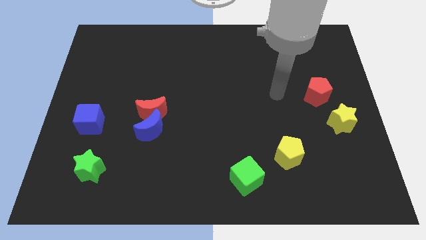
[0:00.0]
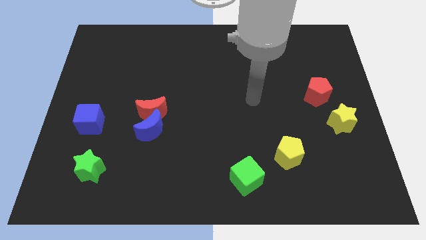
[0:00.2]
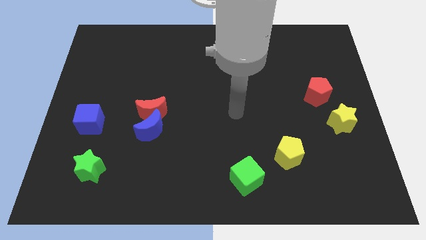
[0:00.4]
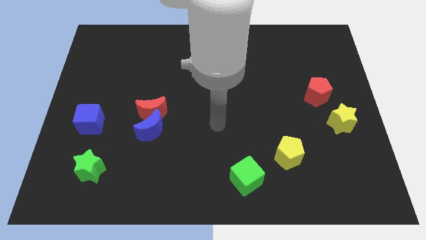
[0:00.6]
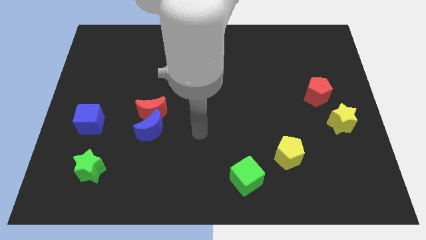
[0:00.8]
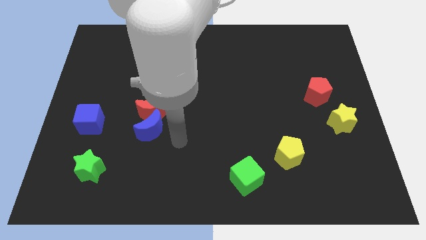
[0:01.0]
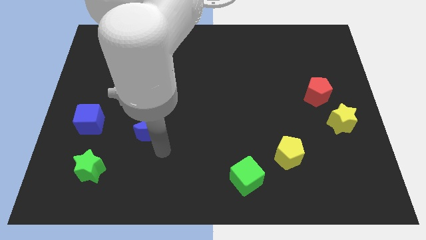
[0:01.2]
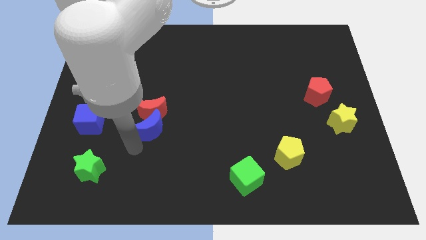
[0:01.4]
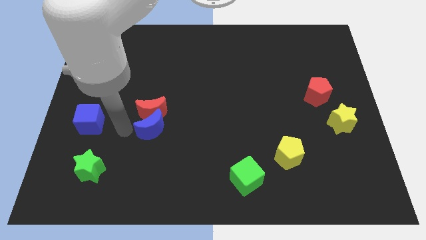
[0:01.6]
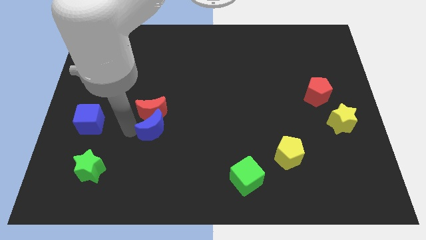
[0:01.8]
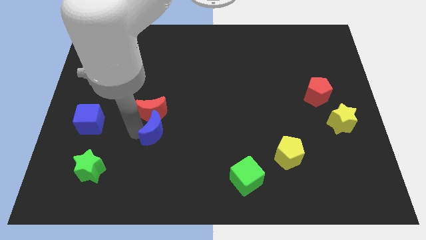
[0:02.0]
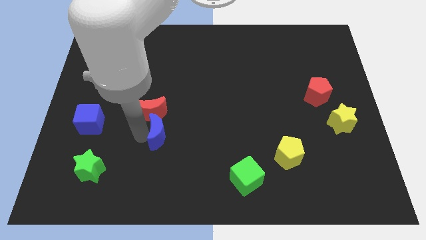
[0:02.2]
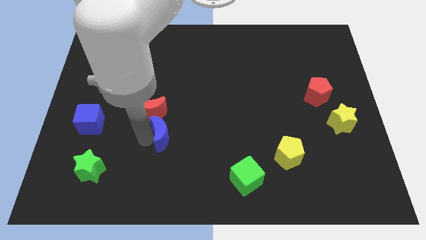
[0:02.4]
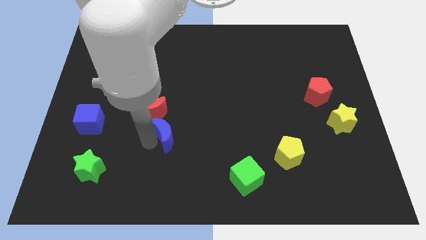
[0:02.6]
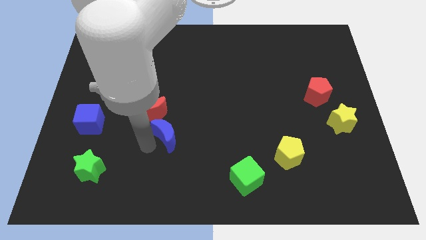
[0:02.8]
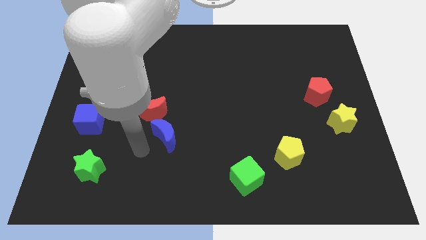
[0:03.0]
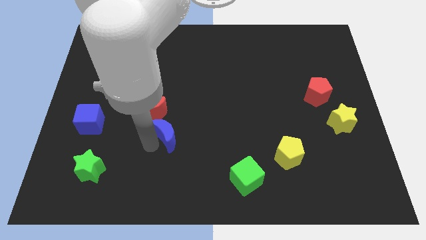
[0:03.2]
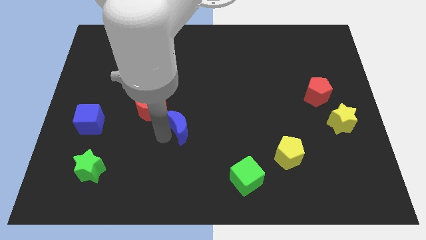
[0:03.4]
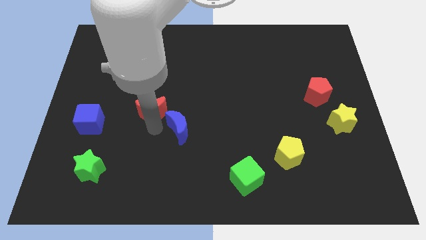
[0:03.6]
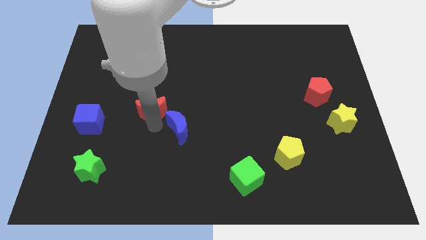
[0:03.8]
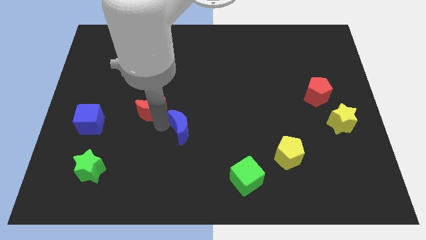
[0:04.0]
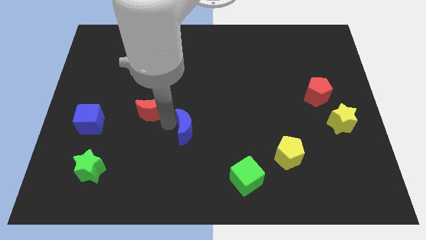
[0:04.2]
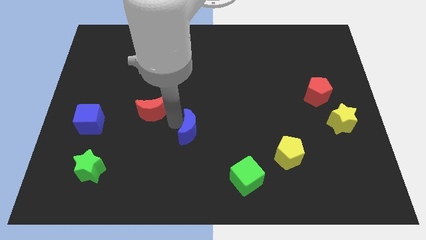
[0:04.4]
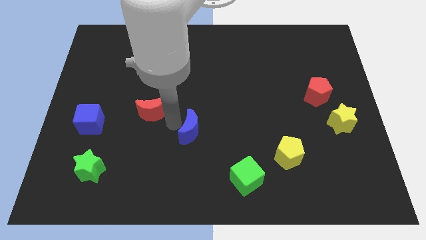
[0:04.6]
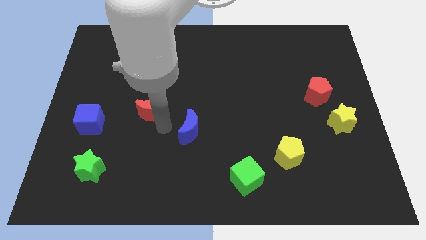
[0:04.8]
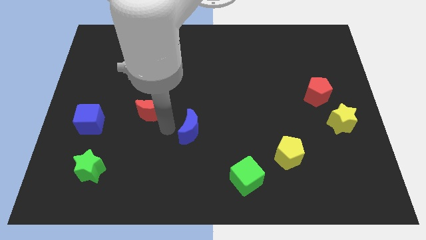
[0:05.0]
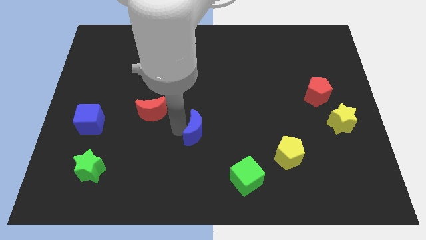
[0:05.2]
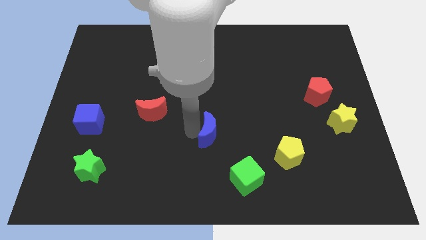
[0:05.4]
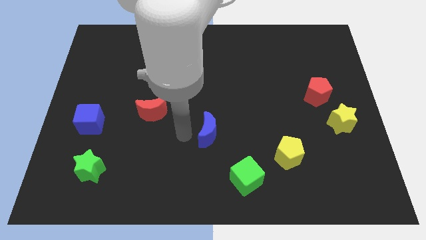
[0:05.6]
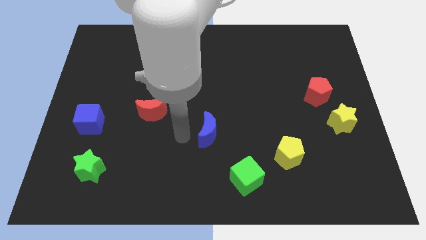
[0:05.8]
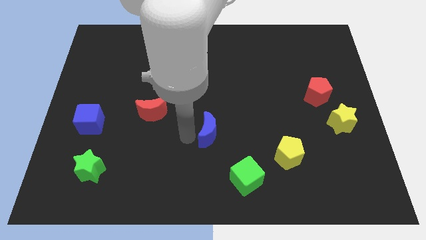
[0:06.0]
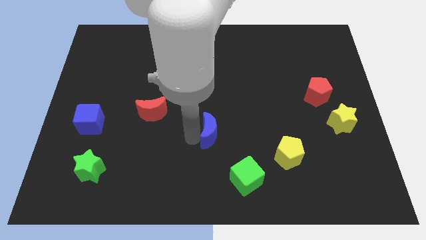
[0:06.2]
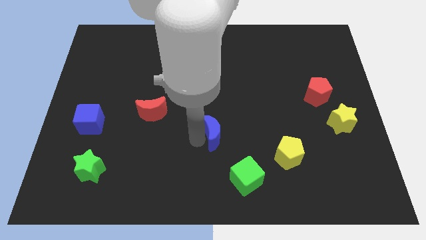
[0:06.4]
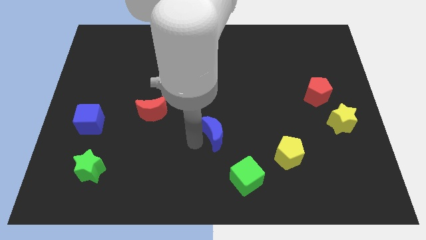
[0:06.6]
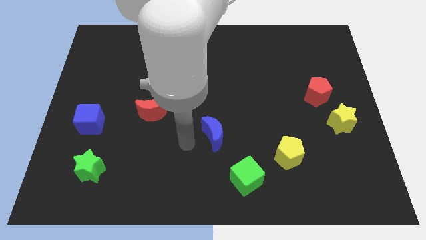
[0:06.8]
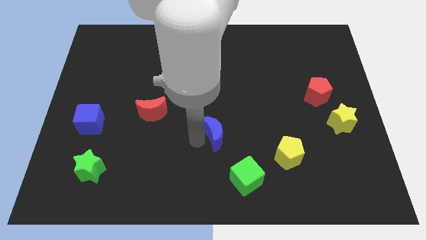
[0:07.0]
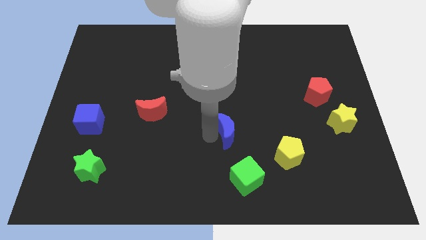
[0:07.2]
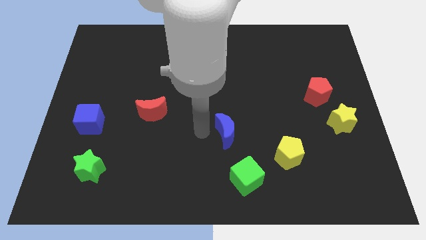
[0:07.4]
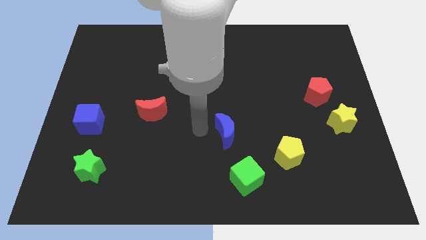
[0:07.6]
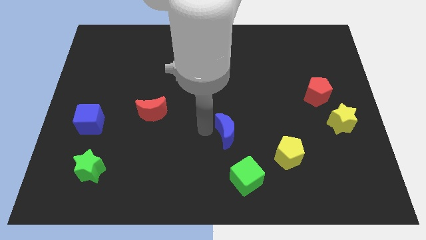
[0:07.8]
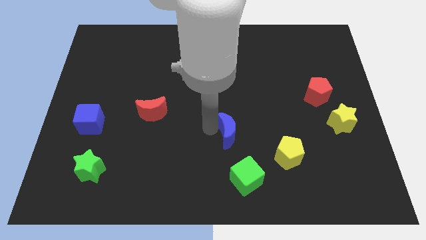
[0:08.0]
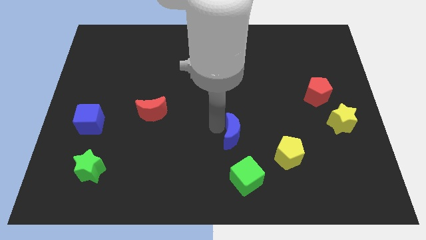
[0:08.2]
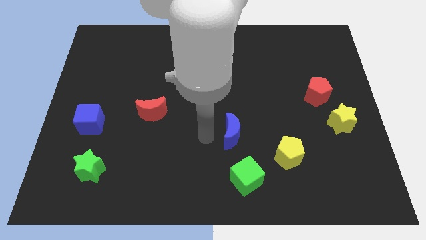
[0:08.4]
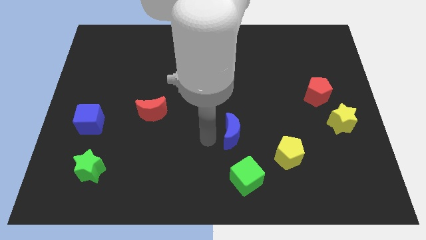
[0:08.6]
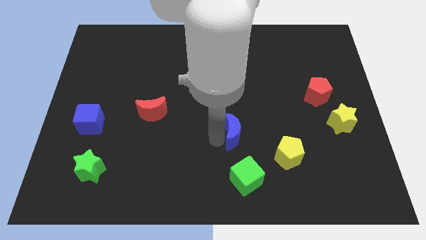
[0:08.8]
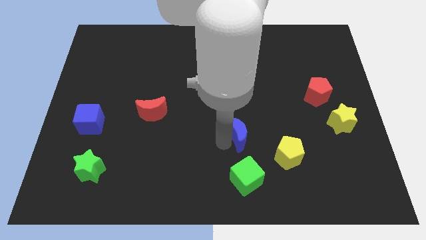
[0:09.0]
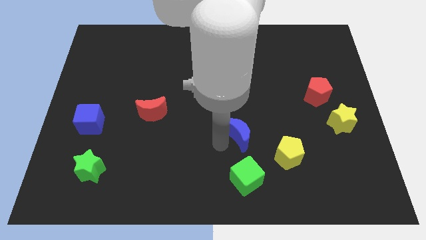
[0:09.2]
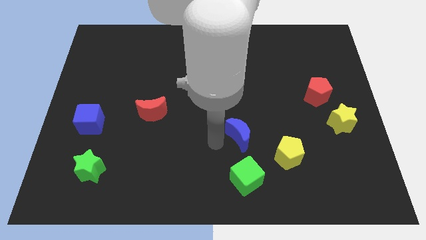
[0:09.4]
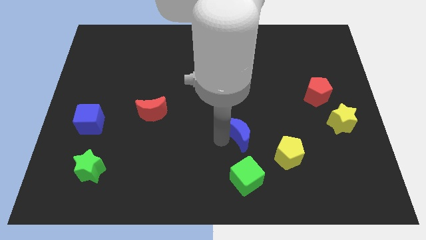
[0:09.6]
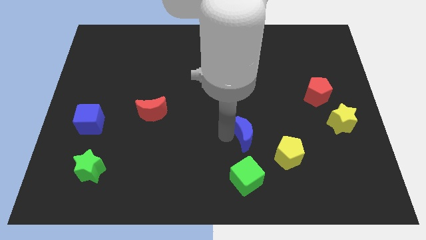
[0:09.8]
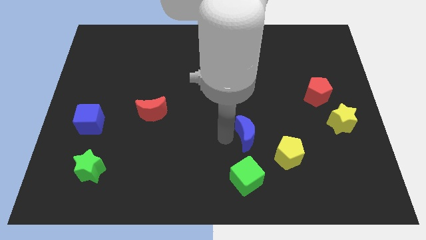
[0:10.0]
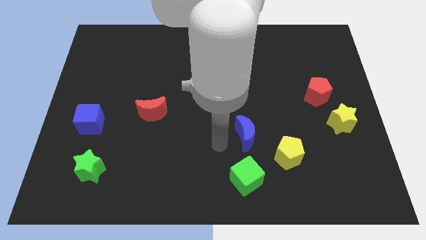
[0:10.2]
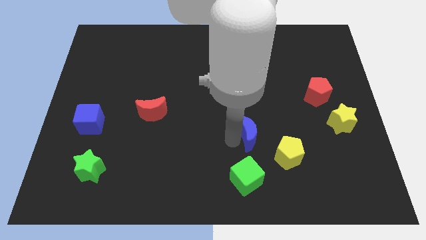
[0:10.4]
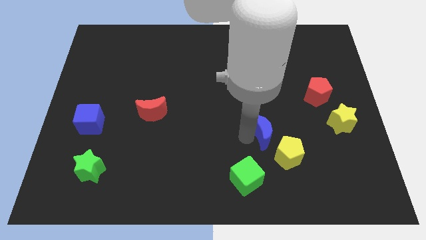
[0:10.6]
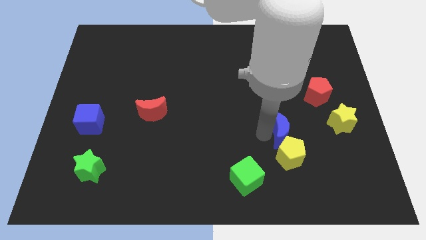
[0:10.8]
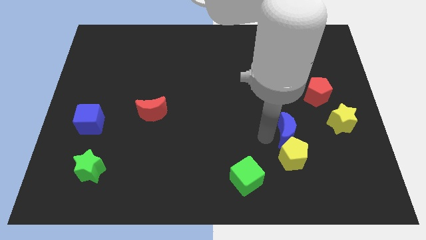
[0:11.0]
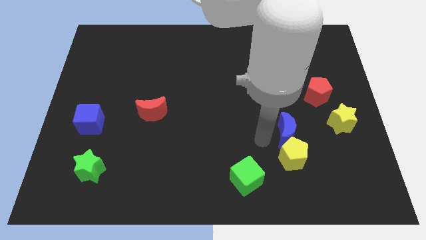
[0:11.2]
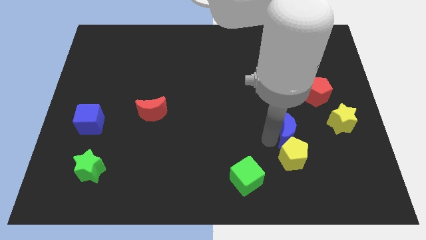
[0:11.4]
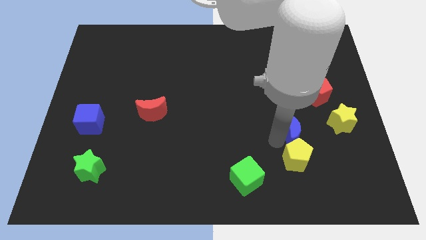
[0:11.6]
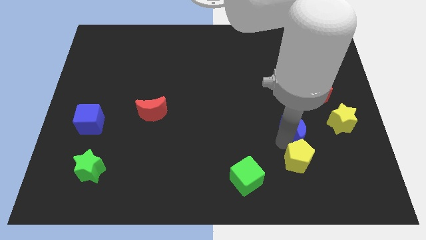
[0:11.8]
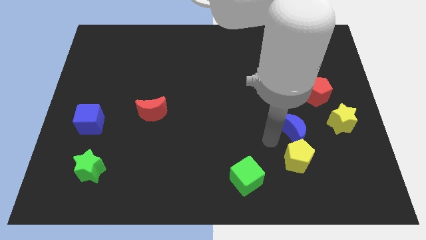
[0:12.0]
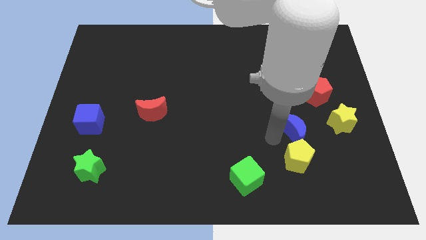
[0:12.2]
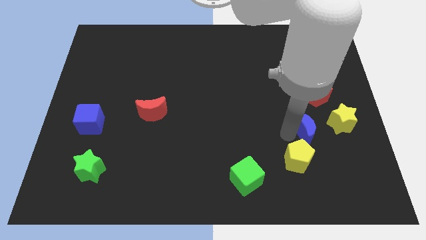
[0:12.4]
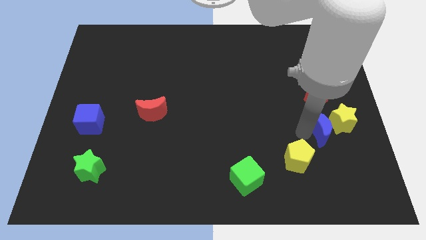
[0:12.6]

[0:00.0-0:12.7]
slide the blue moon next to the yellow star

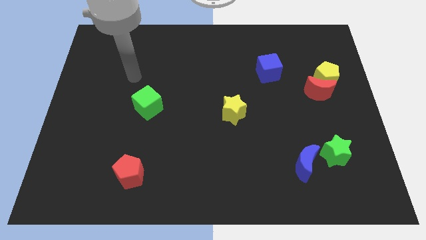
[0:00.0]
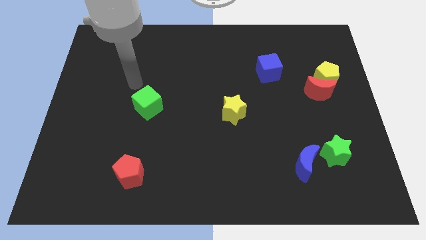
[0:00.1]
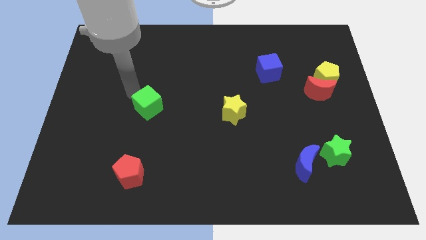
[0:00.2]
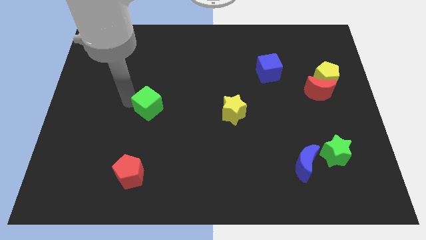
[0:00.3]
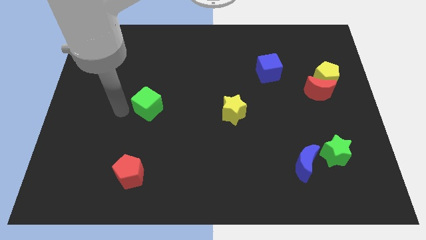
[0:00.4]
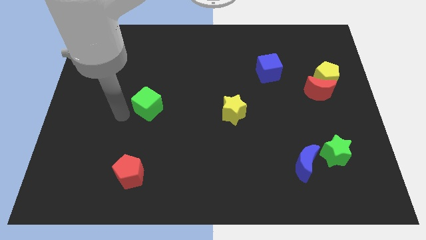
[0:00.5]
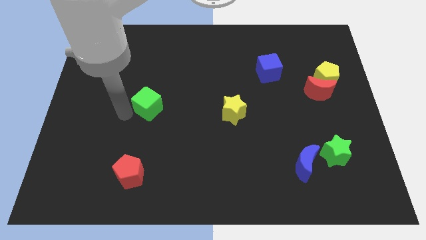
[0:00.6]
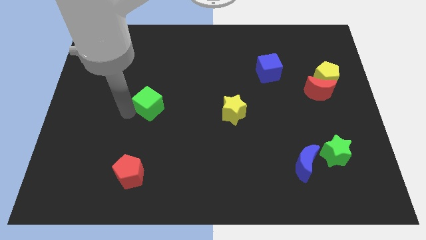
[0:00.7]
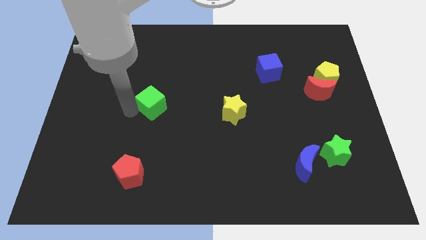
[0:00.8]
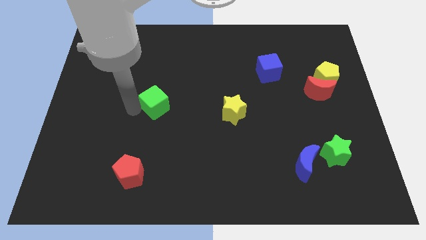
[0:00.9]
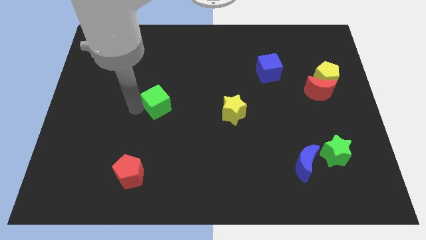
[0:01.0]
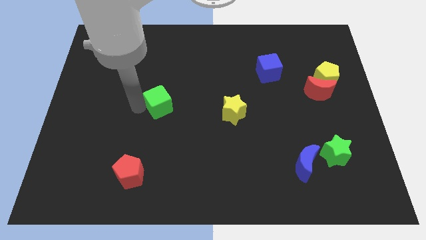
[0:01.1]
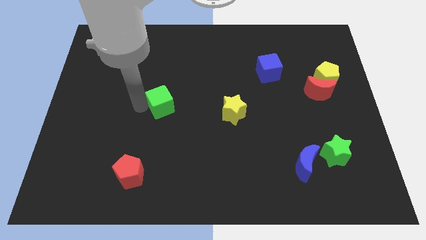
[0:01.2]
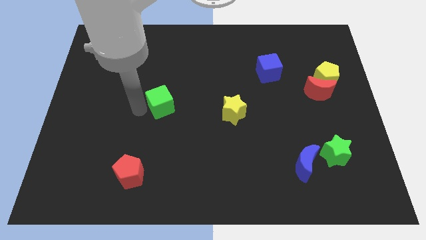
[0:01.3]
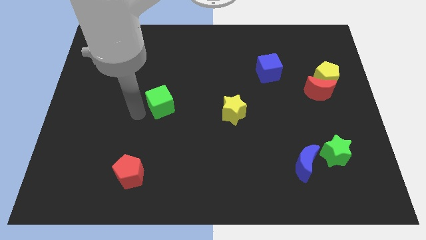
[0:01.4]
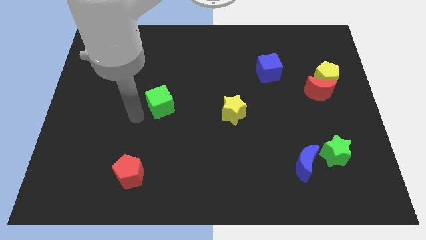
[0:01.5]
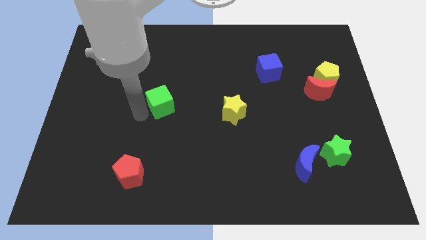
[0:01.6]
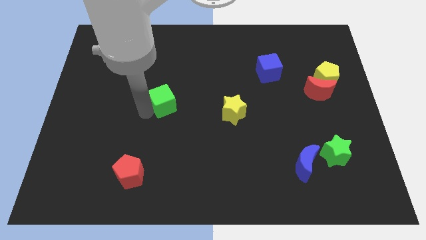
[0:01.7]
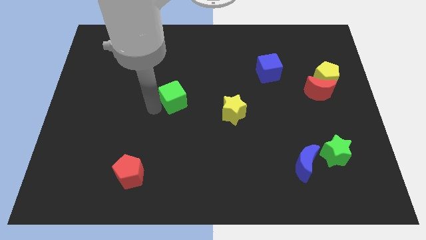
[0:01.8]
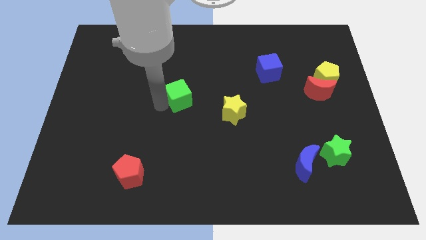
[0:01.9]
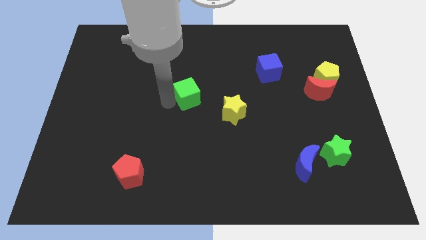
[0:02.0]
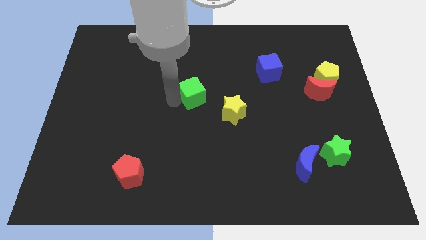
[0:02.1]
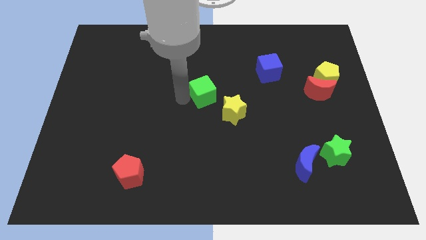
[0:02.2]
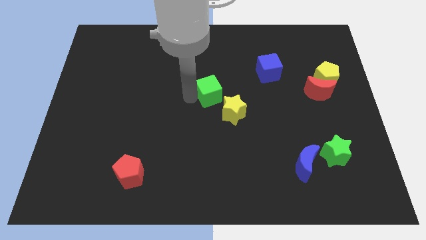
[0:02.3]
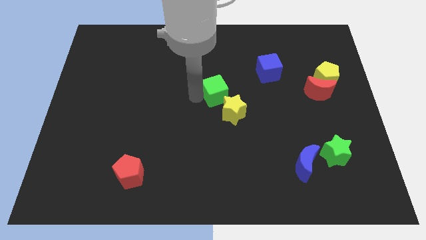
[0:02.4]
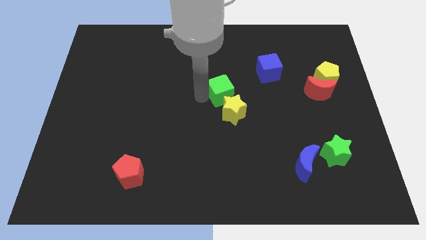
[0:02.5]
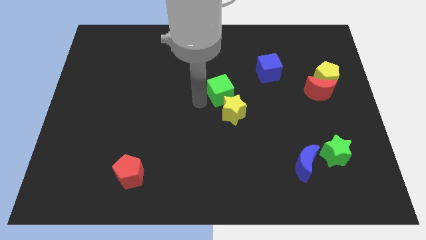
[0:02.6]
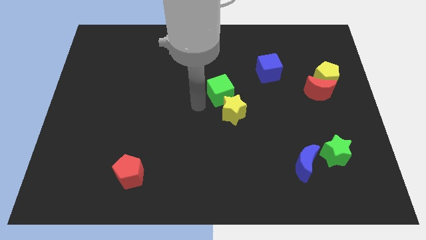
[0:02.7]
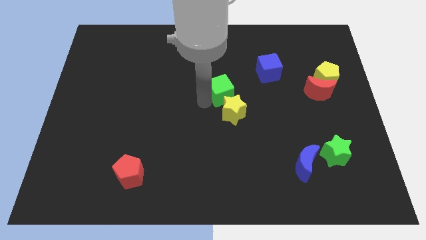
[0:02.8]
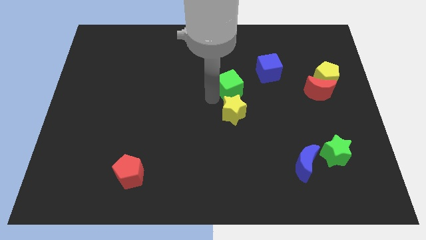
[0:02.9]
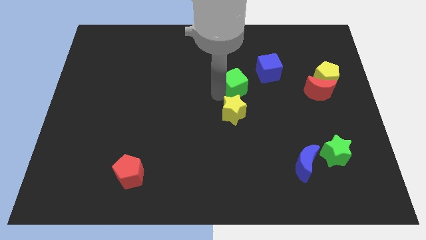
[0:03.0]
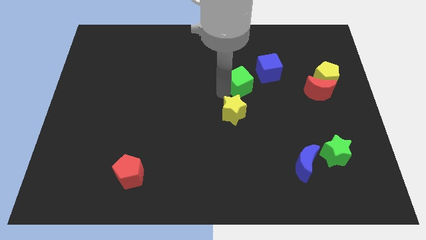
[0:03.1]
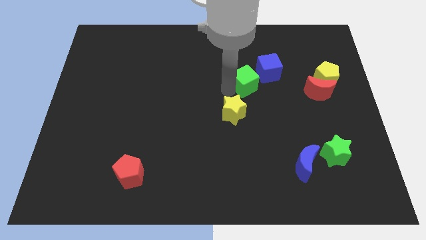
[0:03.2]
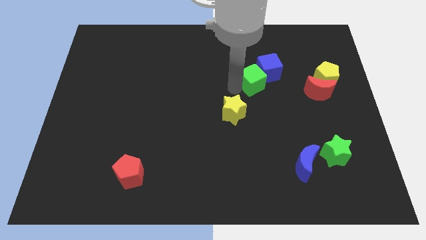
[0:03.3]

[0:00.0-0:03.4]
slide the green cube to the blue cube
